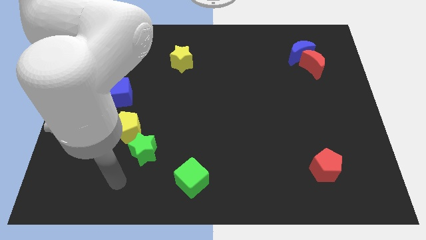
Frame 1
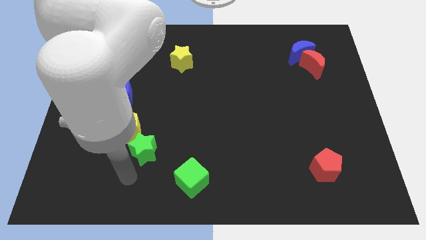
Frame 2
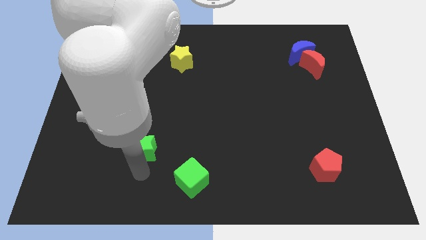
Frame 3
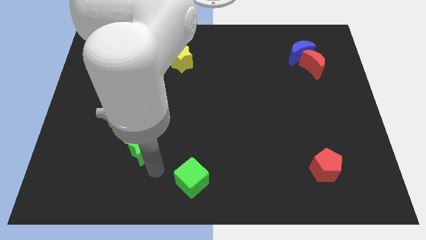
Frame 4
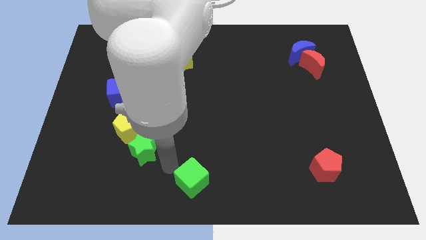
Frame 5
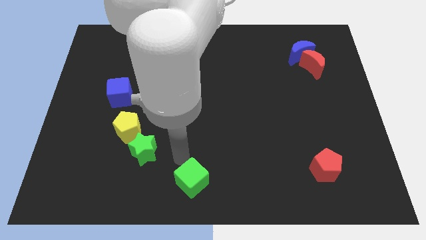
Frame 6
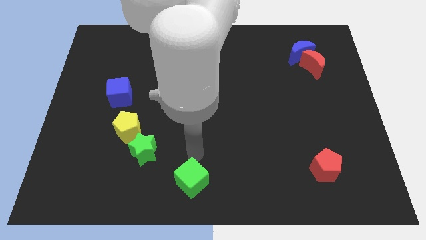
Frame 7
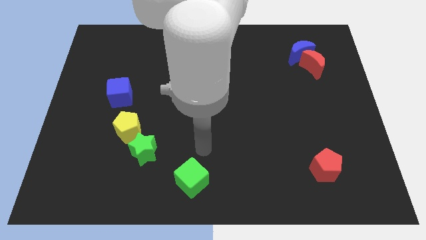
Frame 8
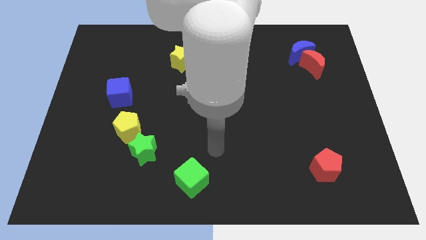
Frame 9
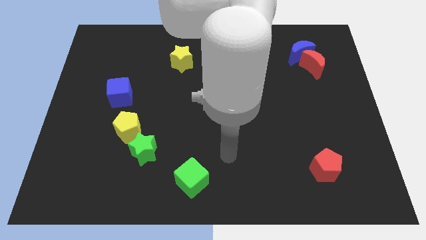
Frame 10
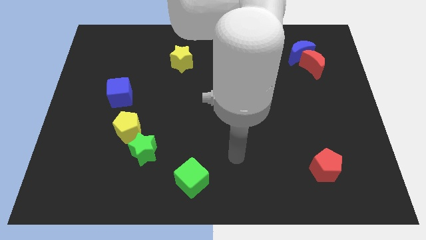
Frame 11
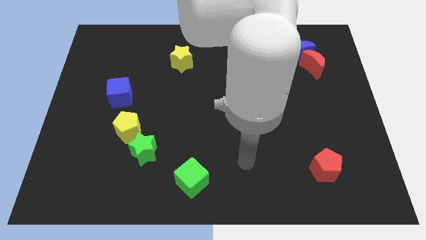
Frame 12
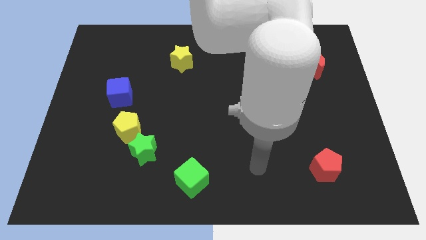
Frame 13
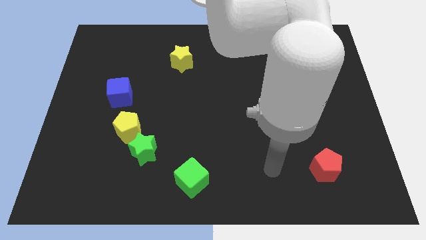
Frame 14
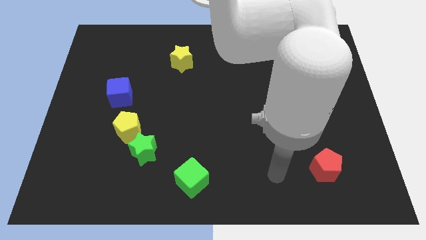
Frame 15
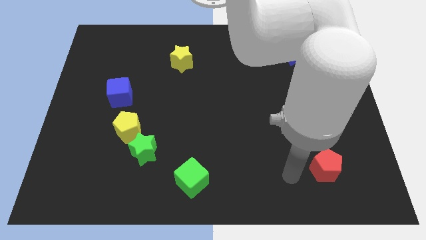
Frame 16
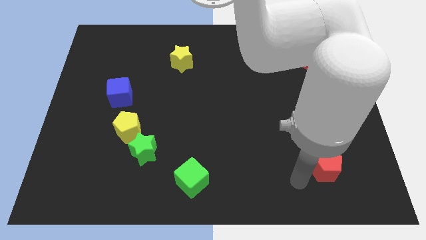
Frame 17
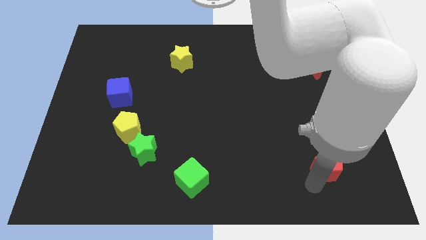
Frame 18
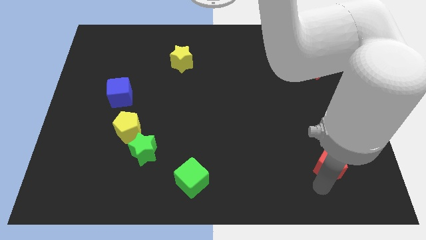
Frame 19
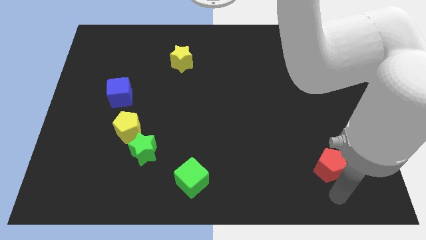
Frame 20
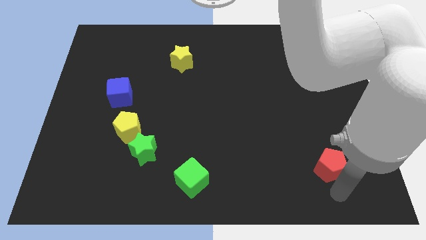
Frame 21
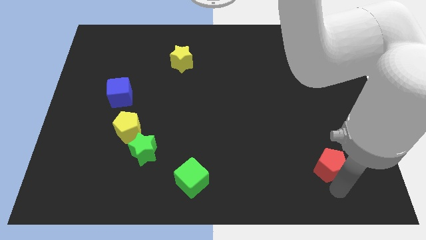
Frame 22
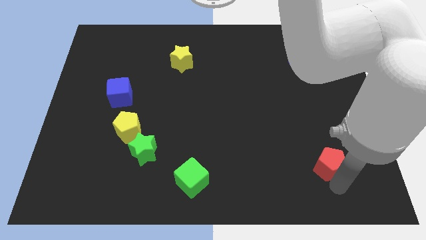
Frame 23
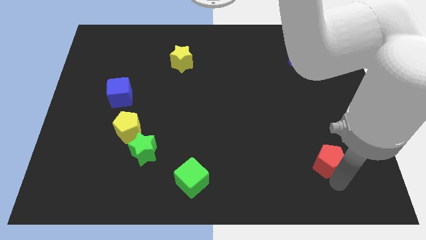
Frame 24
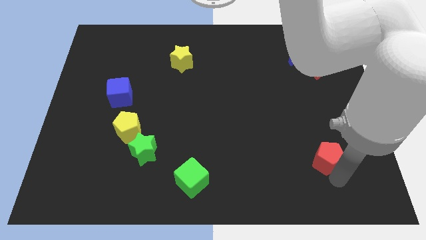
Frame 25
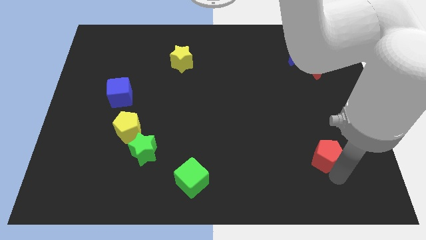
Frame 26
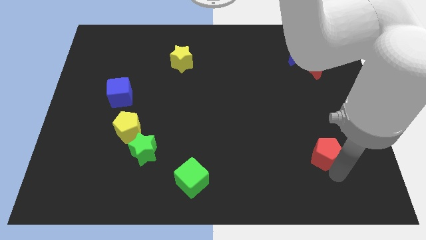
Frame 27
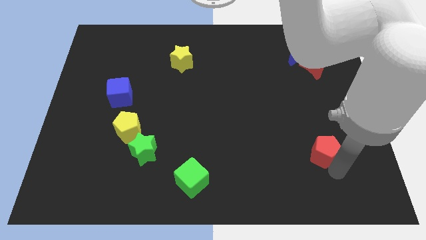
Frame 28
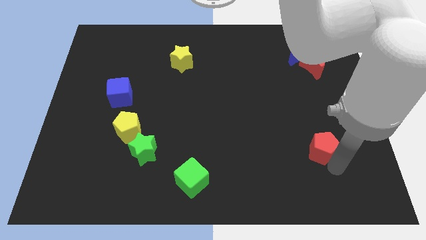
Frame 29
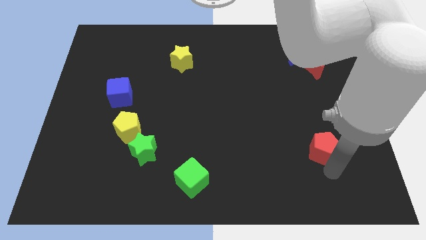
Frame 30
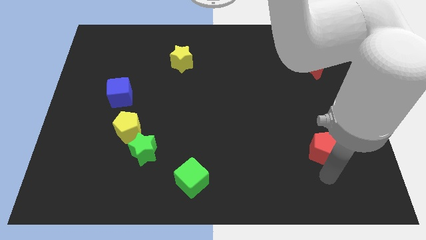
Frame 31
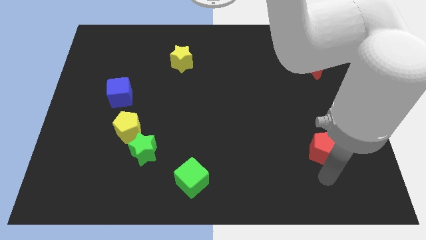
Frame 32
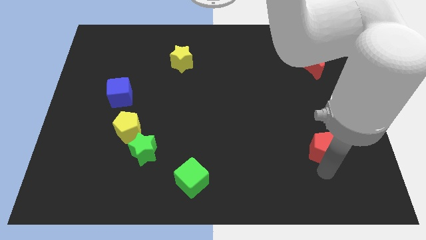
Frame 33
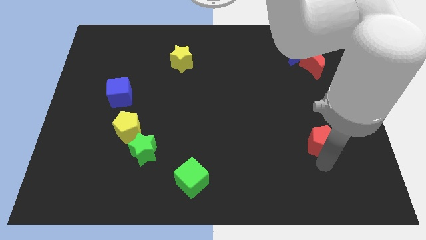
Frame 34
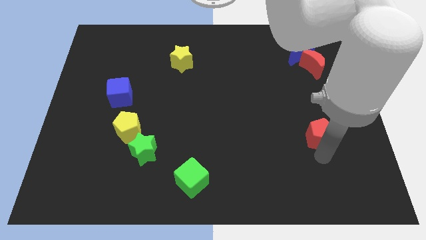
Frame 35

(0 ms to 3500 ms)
slightly push the red pentagon upwards

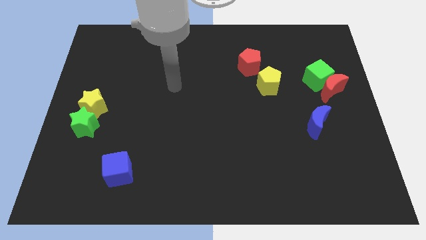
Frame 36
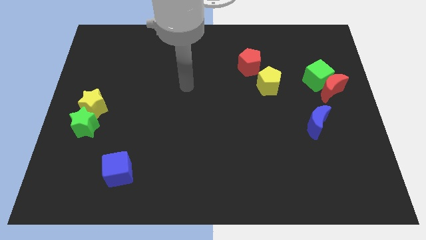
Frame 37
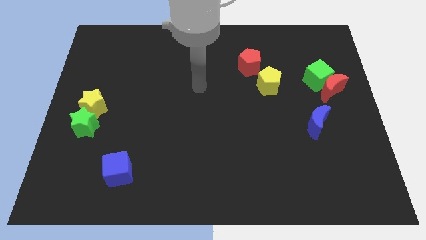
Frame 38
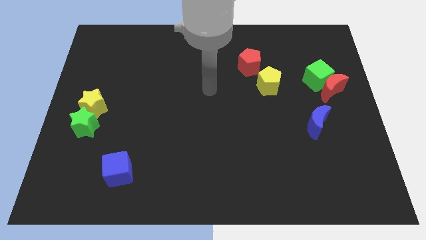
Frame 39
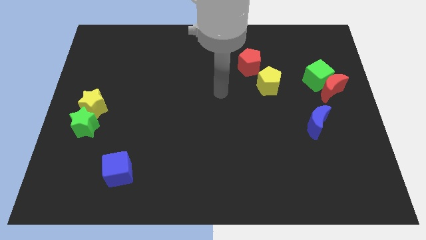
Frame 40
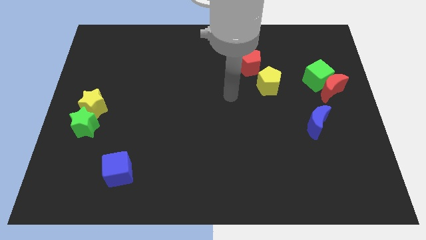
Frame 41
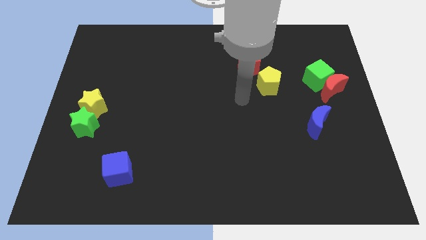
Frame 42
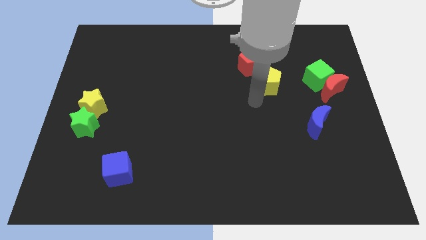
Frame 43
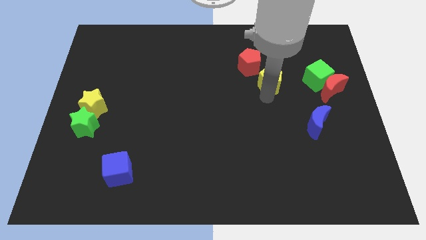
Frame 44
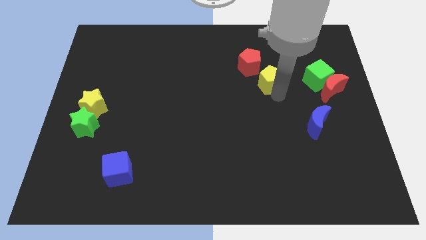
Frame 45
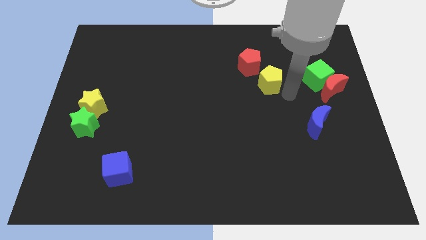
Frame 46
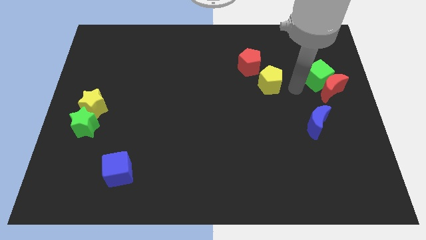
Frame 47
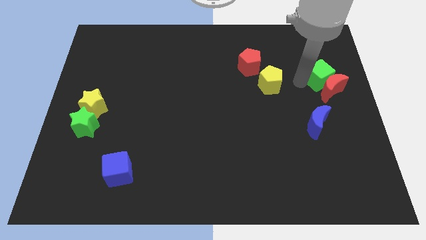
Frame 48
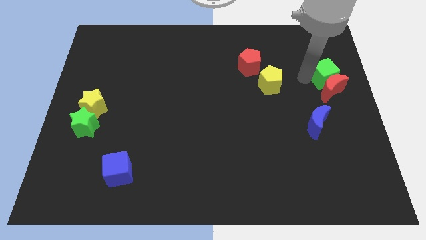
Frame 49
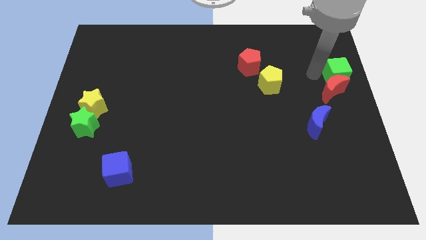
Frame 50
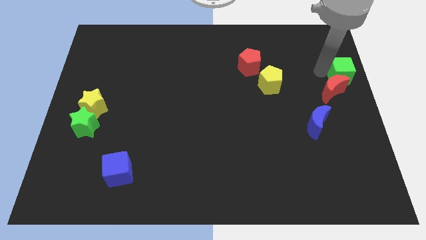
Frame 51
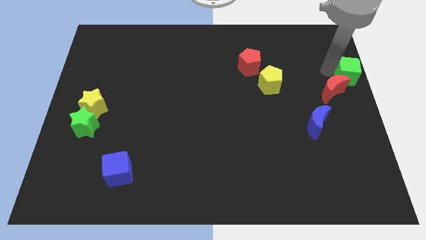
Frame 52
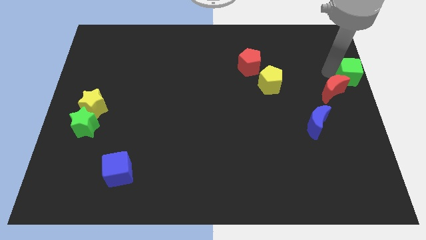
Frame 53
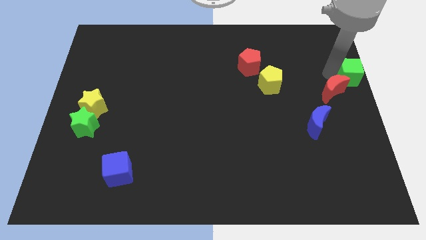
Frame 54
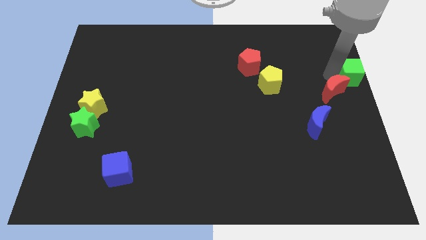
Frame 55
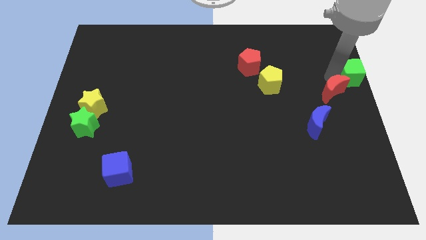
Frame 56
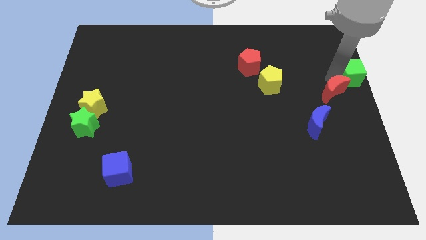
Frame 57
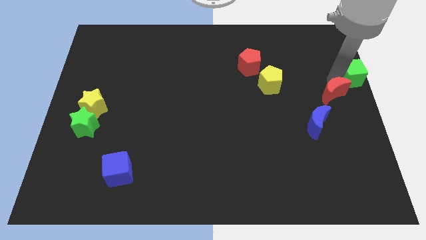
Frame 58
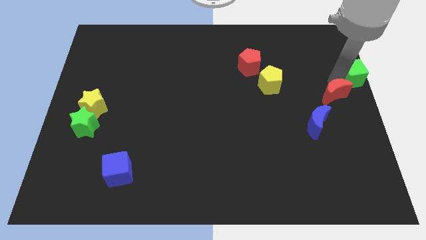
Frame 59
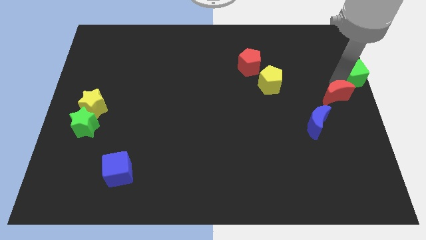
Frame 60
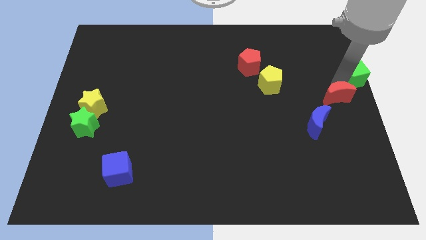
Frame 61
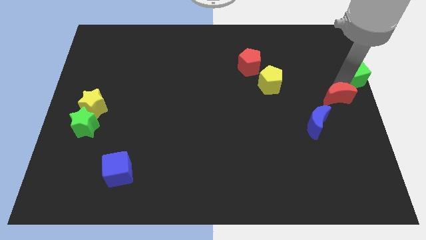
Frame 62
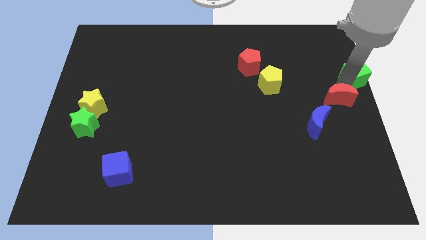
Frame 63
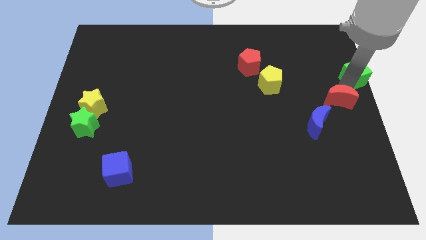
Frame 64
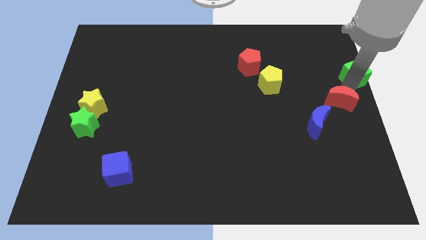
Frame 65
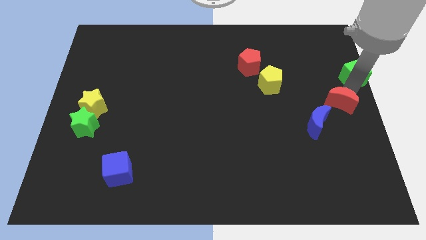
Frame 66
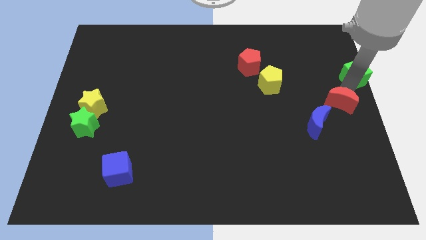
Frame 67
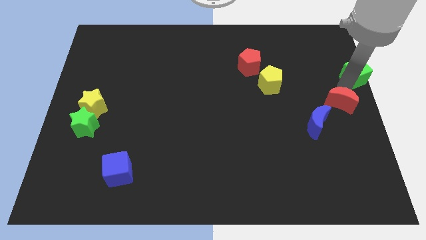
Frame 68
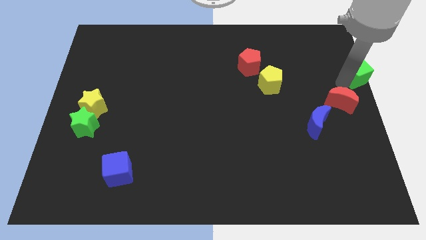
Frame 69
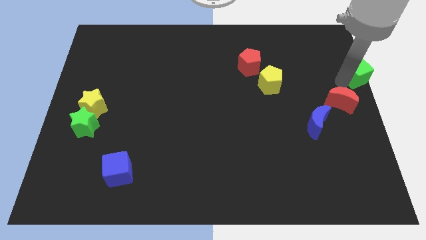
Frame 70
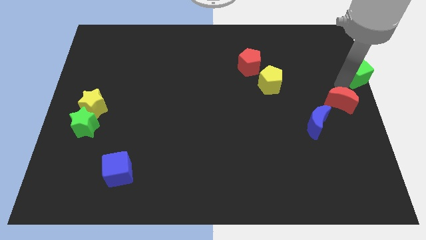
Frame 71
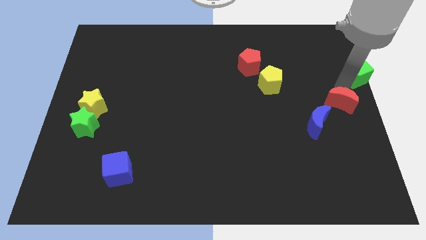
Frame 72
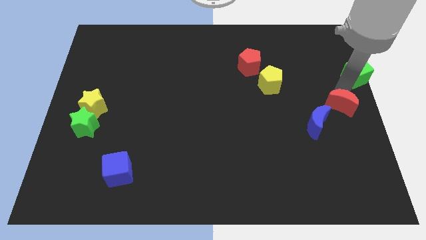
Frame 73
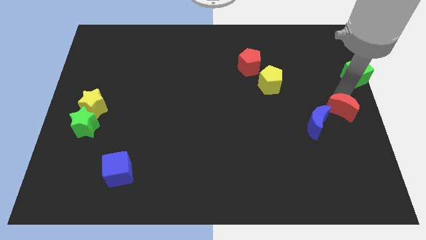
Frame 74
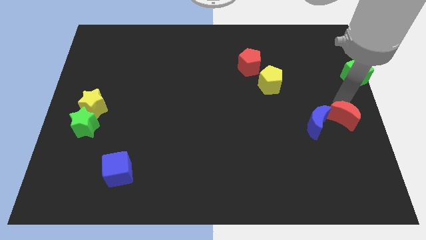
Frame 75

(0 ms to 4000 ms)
push the red moon downwards a little

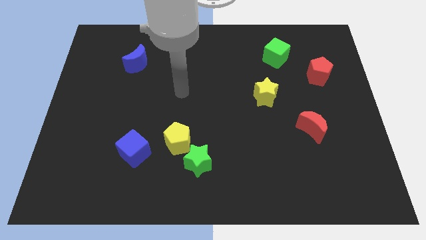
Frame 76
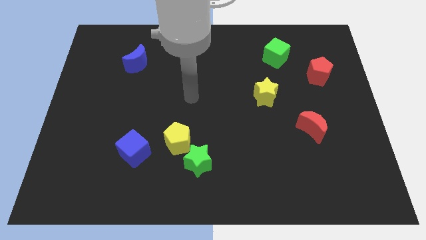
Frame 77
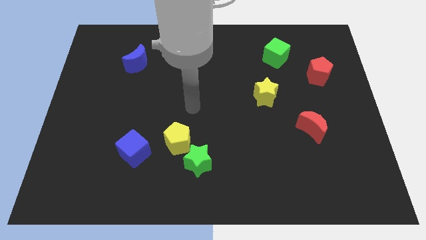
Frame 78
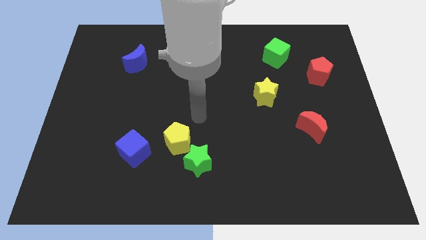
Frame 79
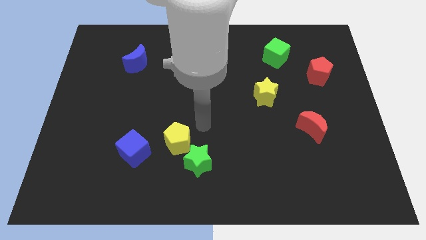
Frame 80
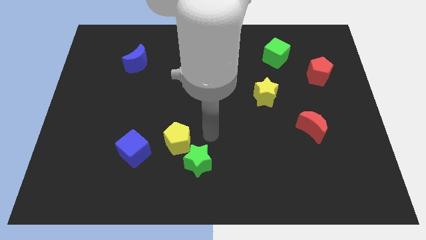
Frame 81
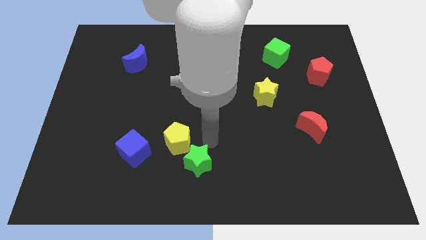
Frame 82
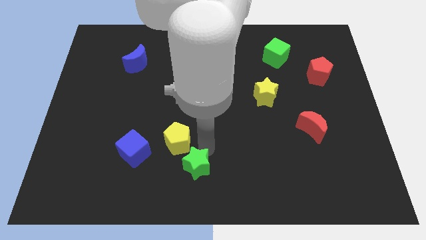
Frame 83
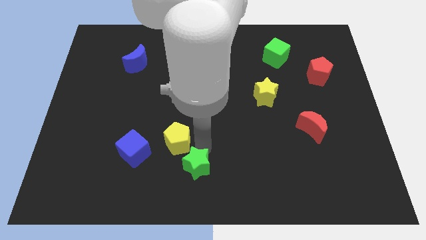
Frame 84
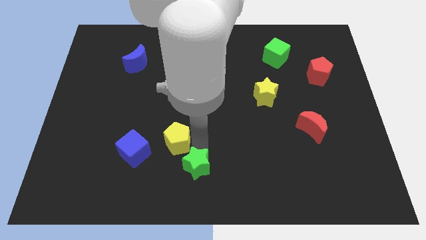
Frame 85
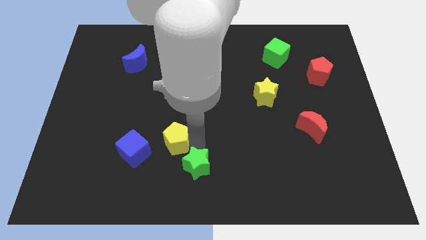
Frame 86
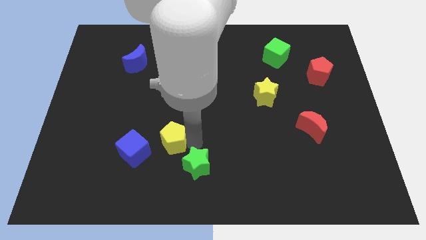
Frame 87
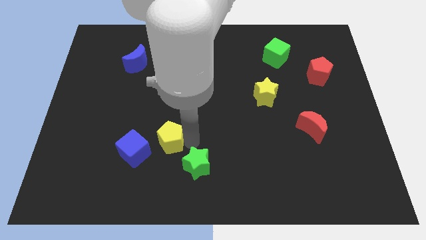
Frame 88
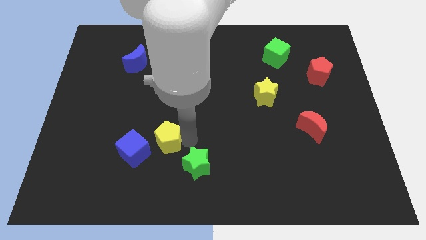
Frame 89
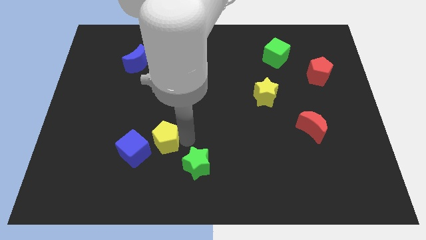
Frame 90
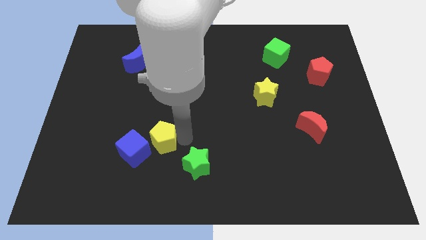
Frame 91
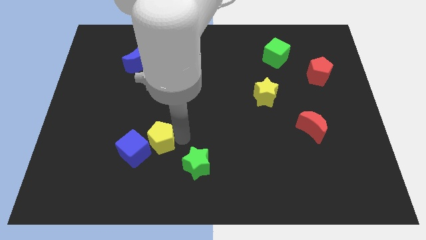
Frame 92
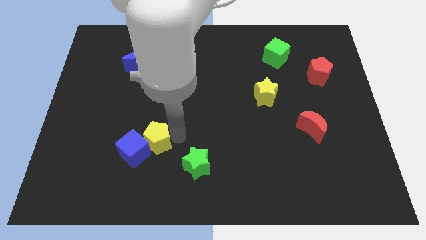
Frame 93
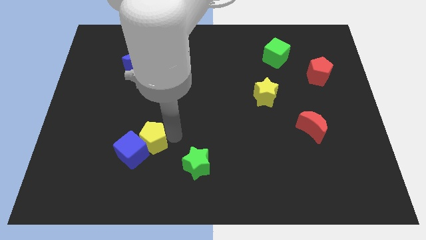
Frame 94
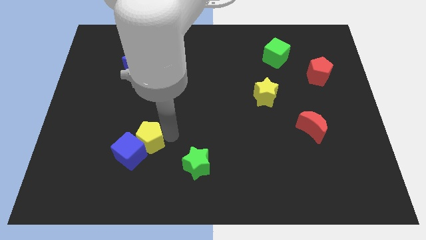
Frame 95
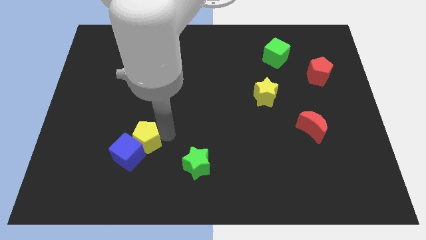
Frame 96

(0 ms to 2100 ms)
slide the yellow pentagon left a little
